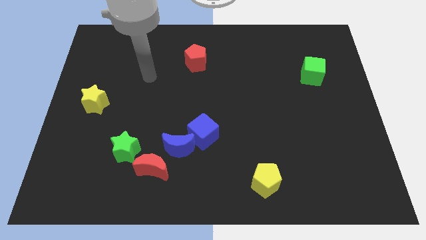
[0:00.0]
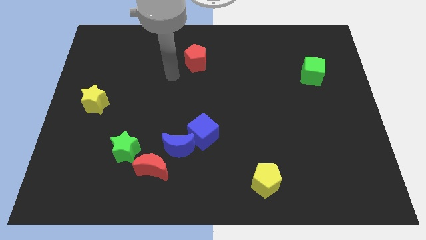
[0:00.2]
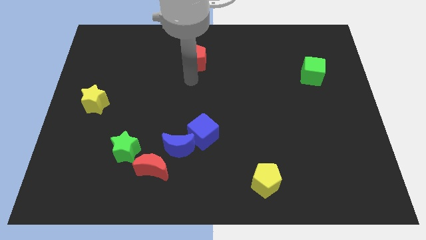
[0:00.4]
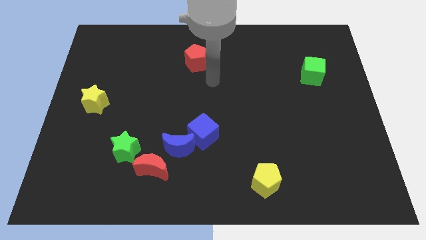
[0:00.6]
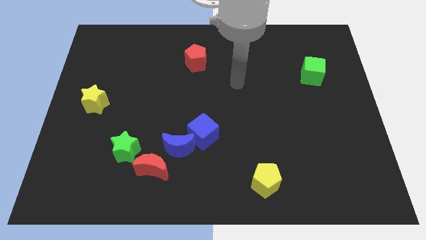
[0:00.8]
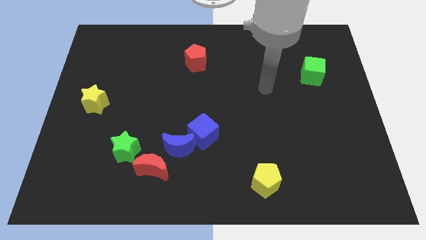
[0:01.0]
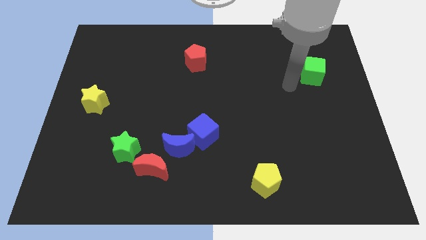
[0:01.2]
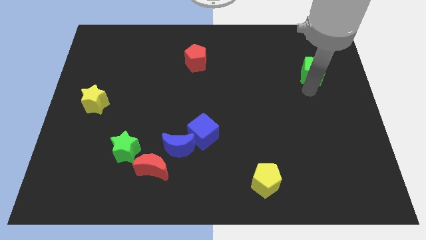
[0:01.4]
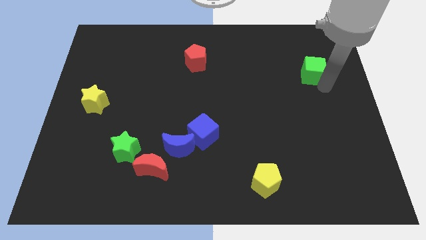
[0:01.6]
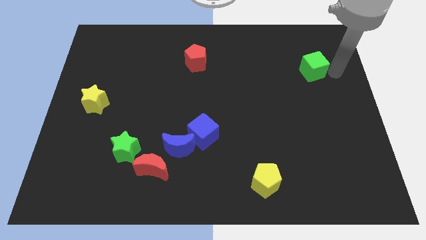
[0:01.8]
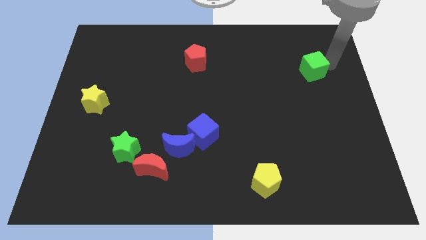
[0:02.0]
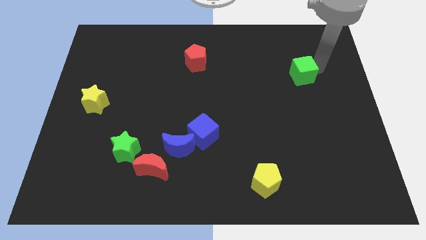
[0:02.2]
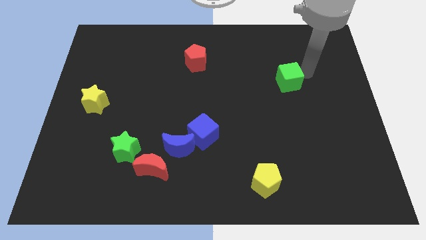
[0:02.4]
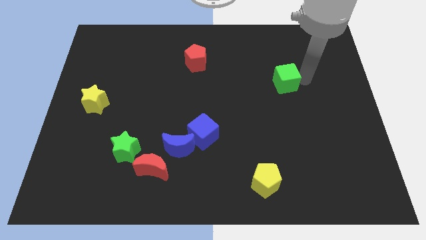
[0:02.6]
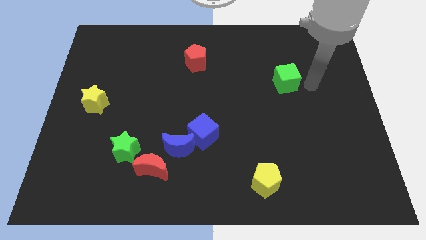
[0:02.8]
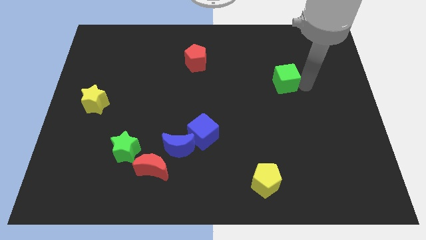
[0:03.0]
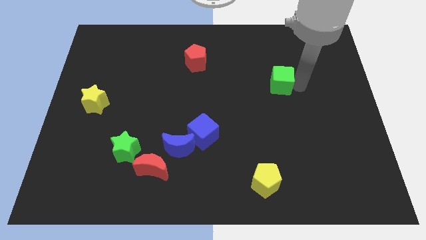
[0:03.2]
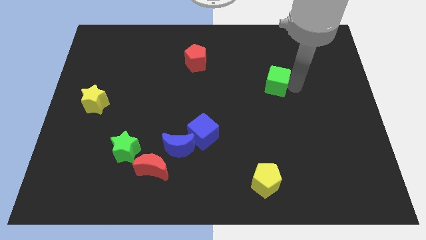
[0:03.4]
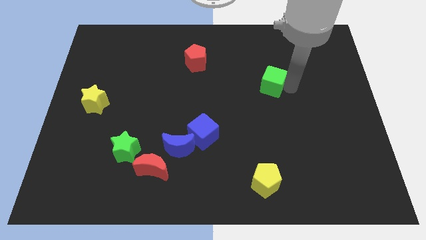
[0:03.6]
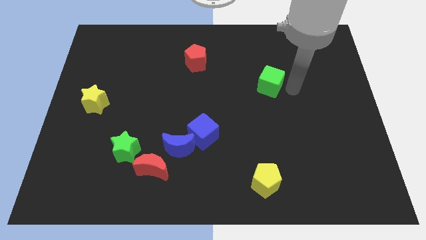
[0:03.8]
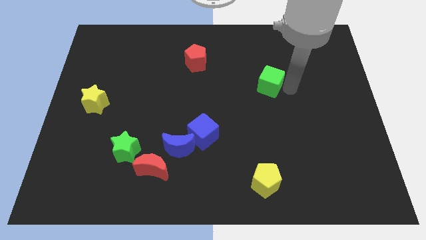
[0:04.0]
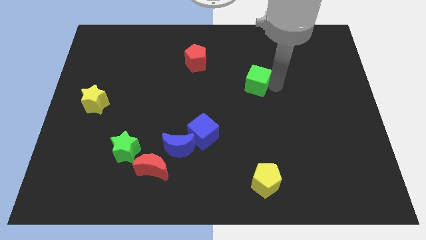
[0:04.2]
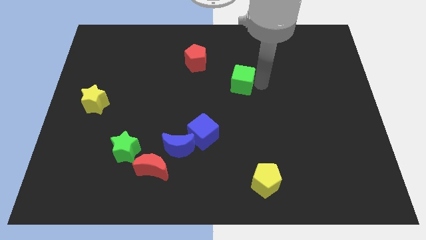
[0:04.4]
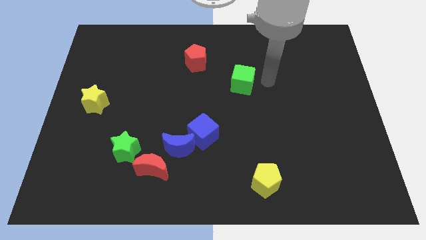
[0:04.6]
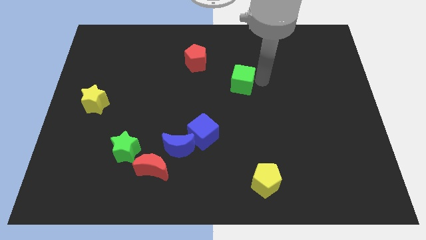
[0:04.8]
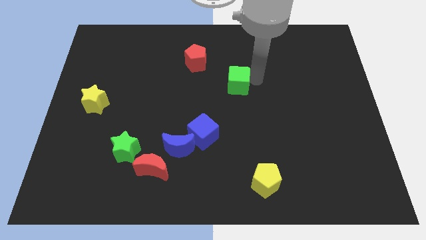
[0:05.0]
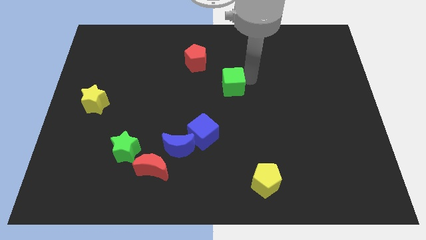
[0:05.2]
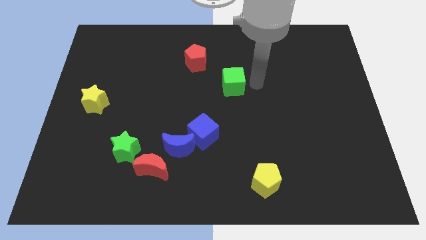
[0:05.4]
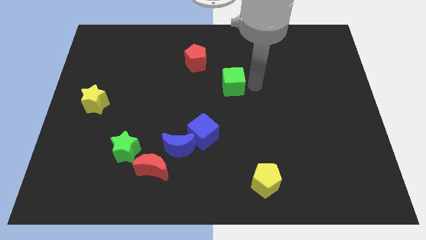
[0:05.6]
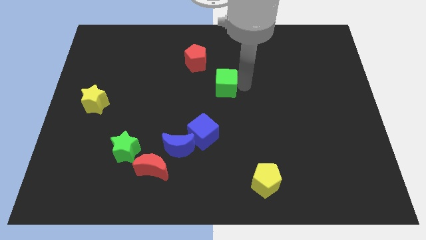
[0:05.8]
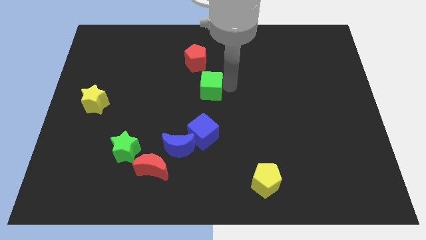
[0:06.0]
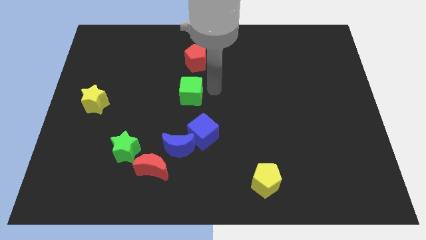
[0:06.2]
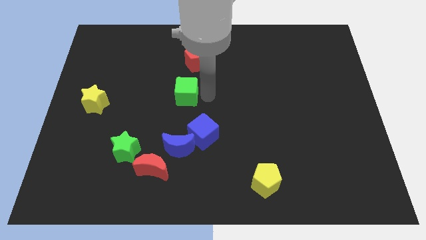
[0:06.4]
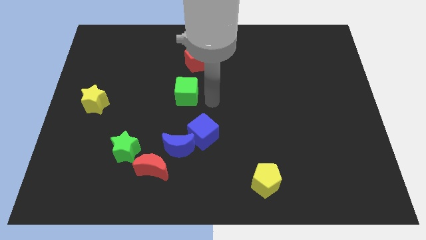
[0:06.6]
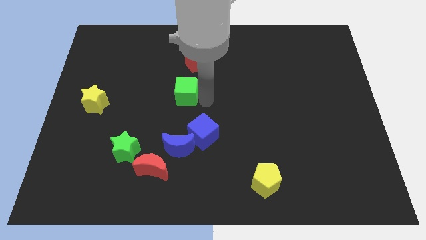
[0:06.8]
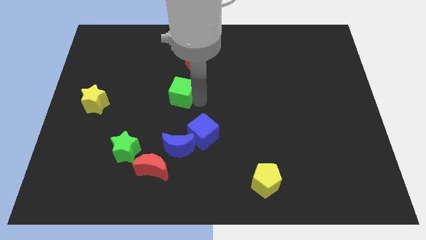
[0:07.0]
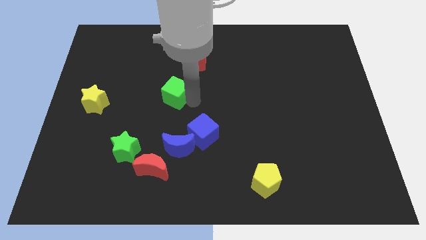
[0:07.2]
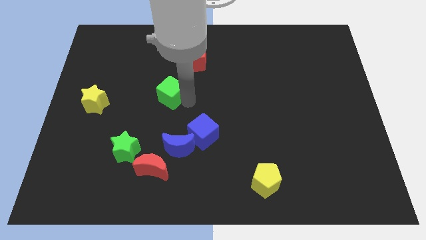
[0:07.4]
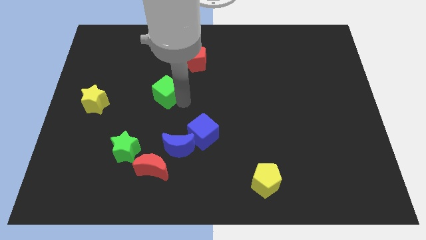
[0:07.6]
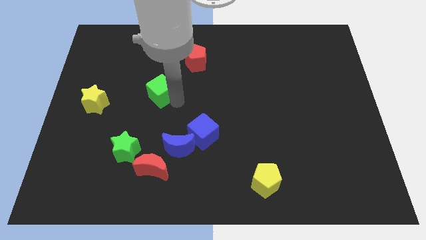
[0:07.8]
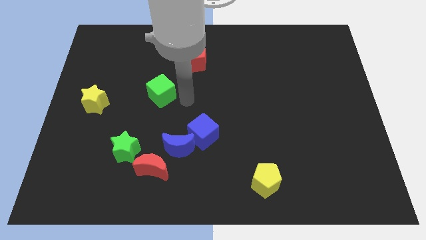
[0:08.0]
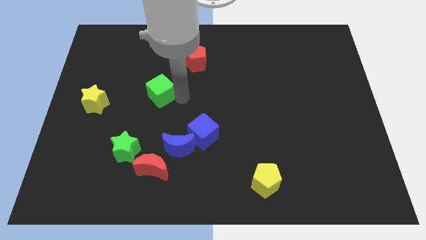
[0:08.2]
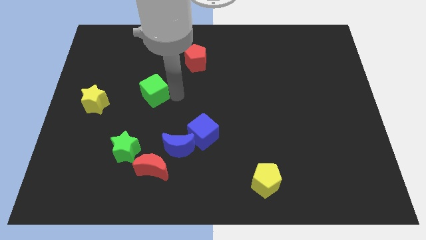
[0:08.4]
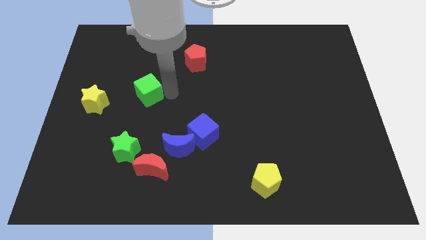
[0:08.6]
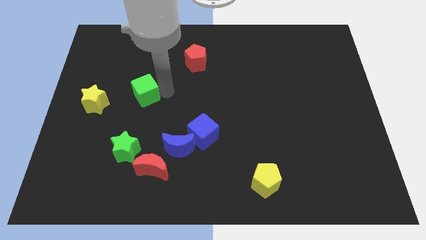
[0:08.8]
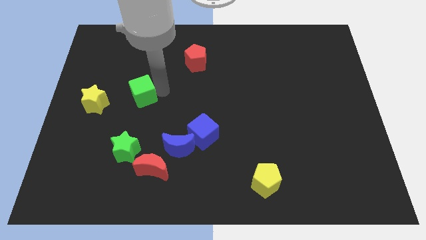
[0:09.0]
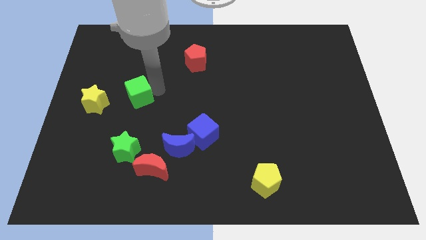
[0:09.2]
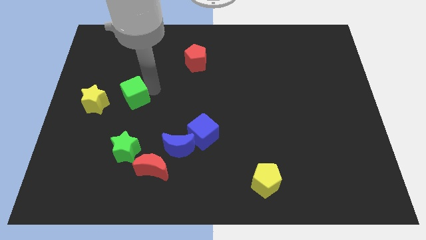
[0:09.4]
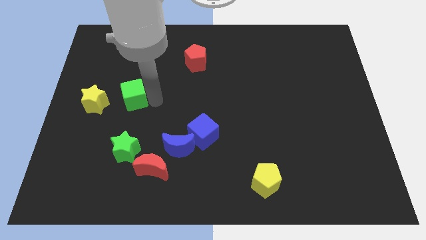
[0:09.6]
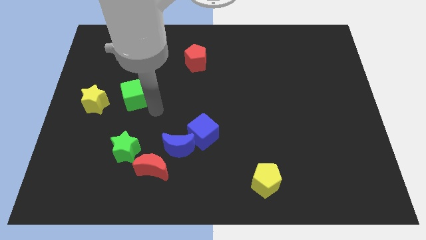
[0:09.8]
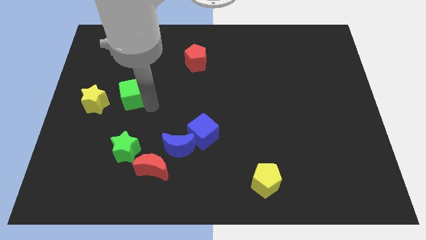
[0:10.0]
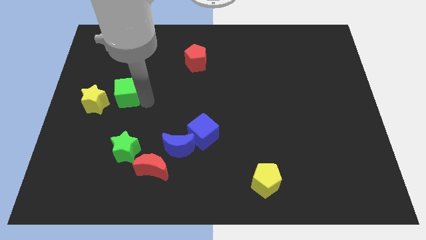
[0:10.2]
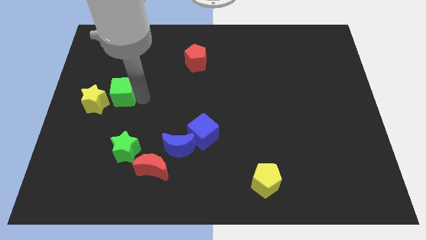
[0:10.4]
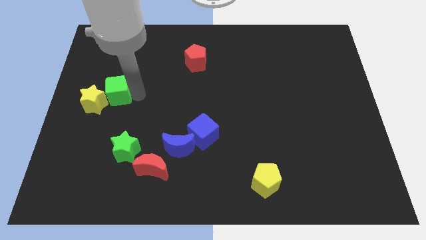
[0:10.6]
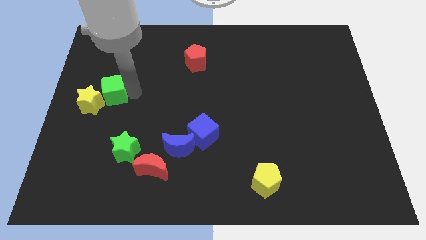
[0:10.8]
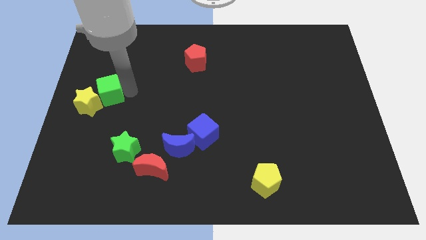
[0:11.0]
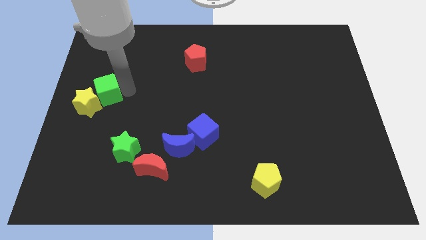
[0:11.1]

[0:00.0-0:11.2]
move the green cube to the left side

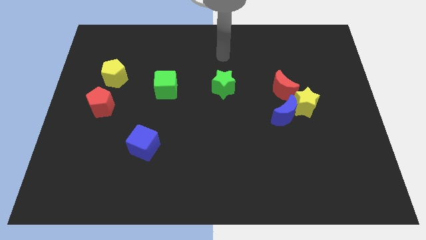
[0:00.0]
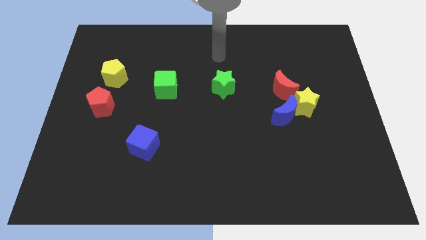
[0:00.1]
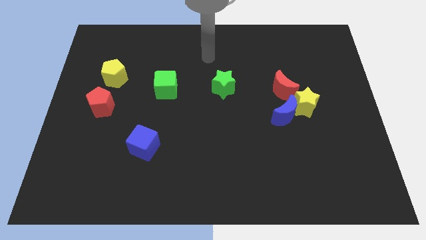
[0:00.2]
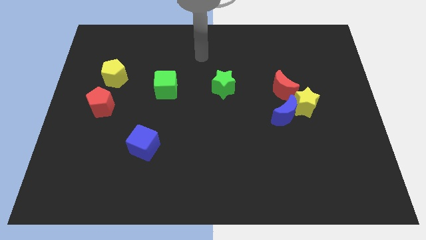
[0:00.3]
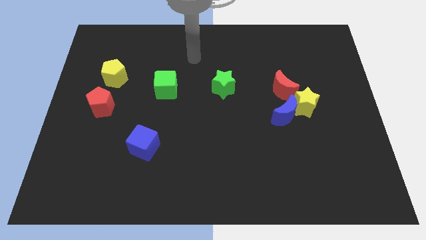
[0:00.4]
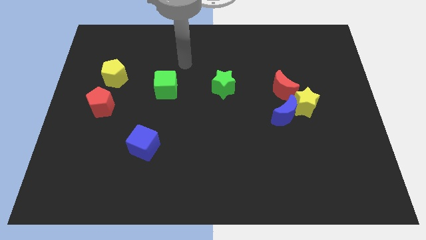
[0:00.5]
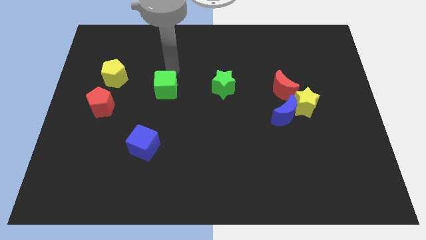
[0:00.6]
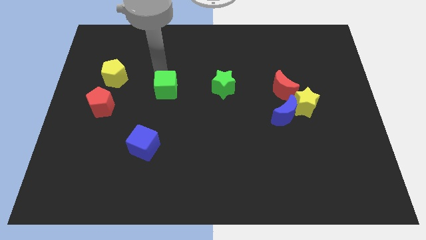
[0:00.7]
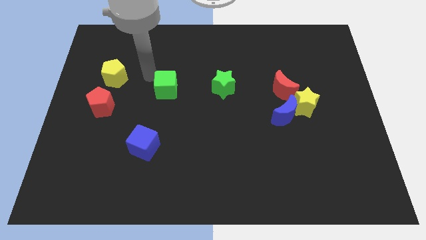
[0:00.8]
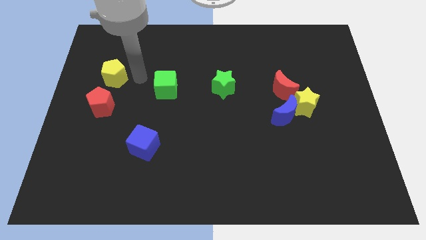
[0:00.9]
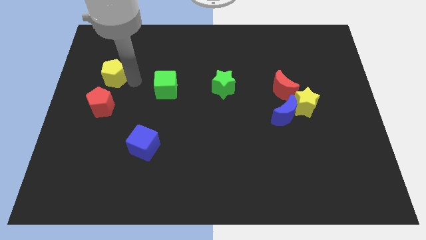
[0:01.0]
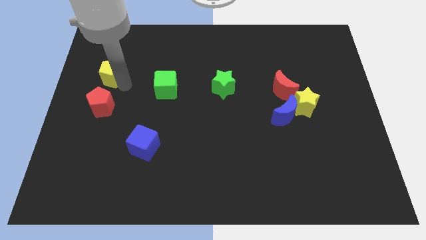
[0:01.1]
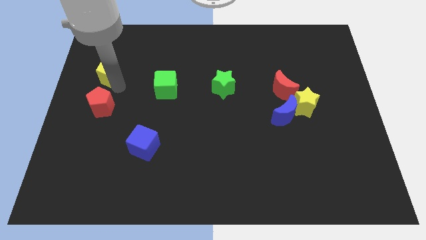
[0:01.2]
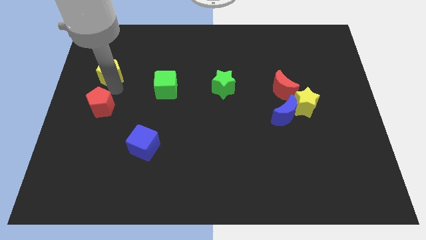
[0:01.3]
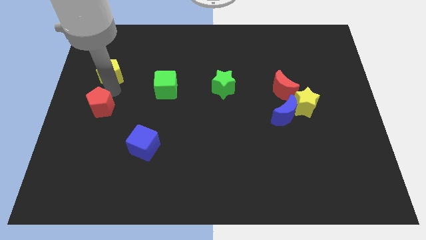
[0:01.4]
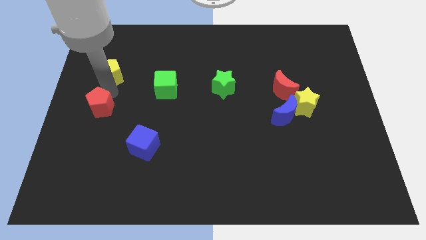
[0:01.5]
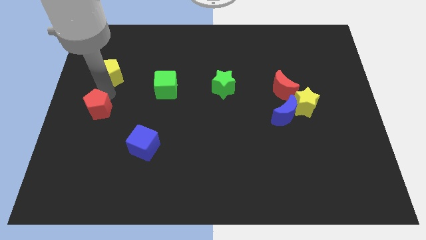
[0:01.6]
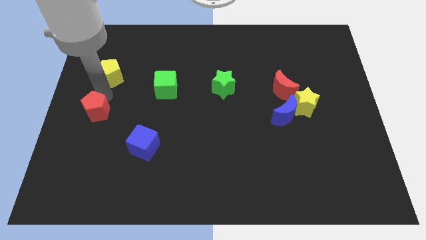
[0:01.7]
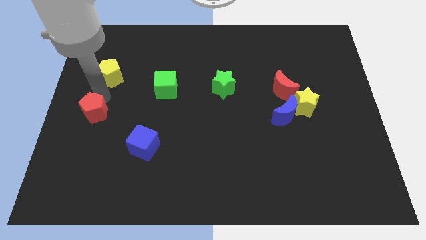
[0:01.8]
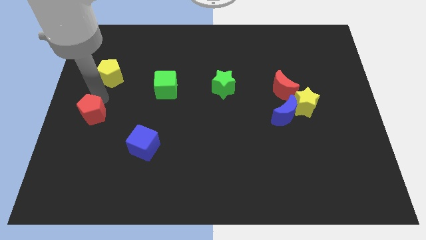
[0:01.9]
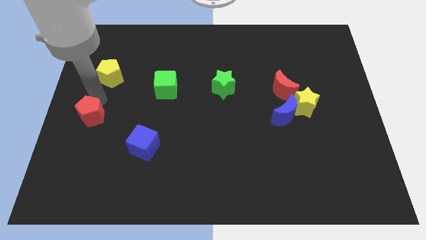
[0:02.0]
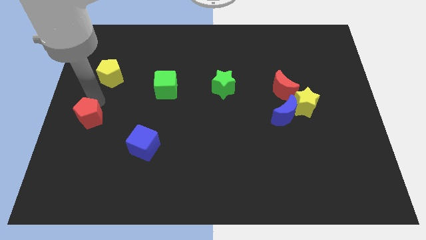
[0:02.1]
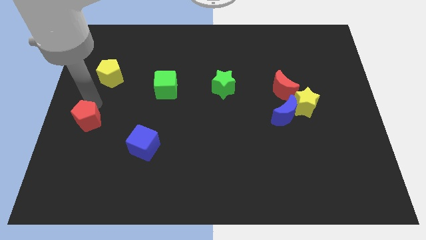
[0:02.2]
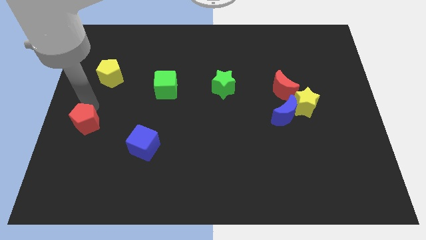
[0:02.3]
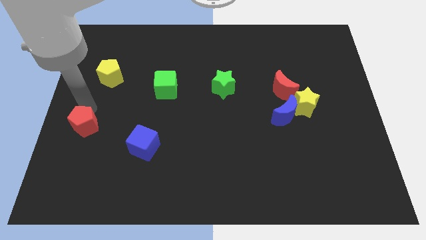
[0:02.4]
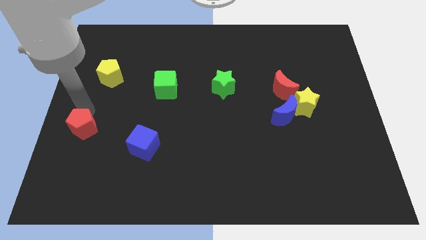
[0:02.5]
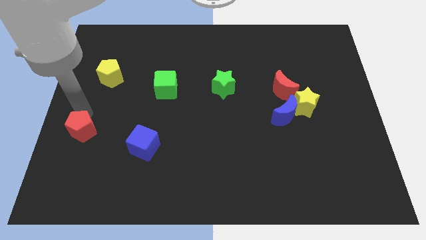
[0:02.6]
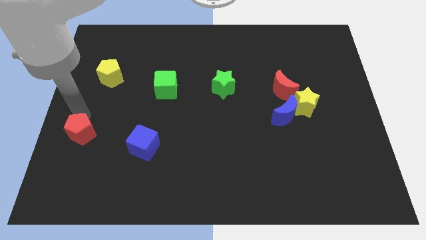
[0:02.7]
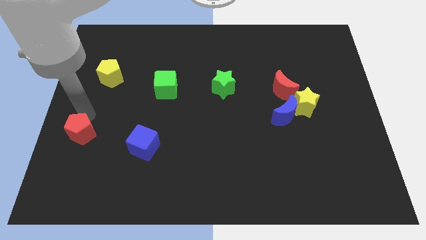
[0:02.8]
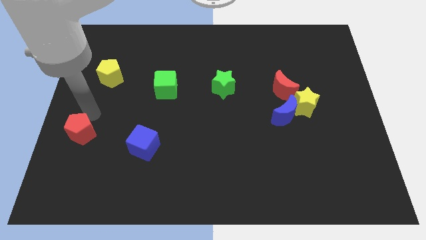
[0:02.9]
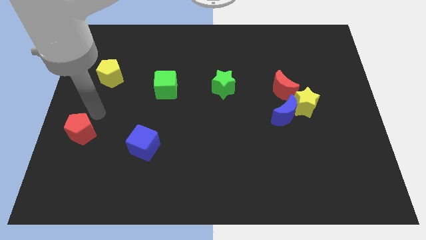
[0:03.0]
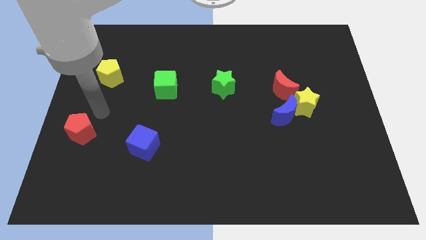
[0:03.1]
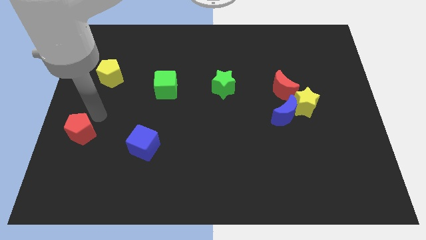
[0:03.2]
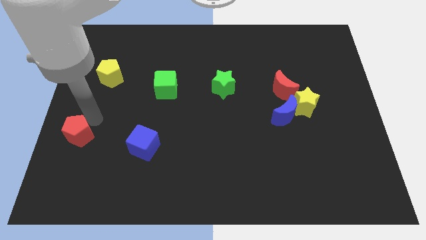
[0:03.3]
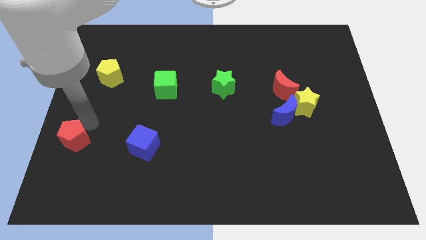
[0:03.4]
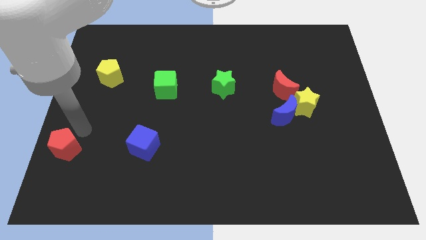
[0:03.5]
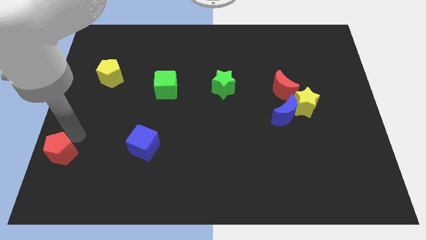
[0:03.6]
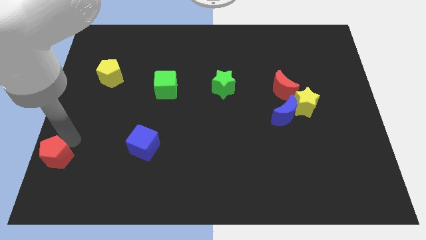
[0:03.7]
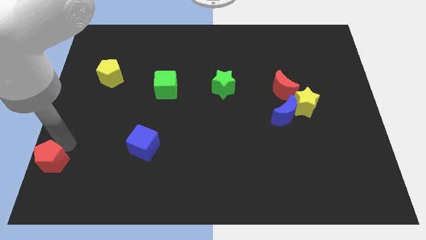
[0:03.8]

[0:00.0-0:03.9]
put the red pentagon to the lower left corner
